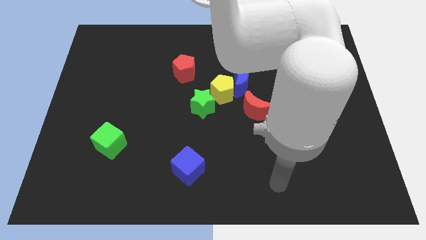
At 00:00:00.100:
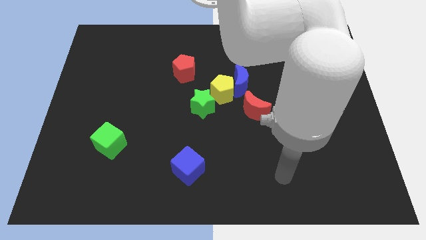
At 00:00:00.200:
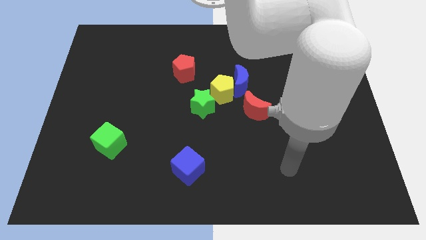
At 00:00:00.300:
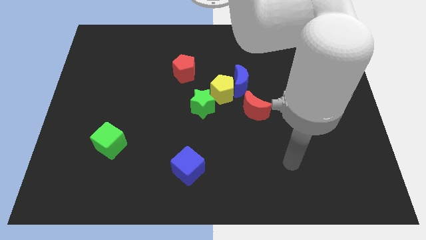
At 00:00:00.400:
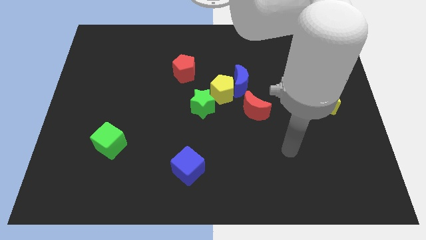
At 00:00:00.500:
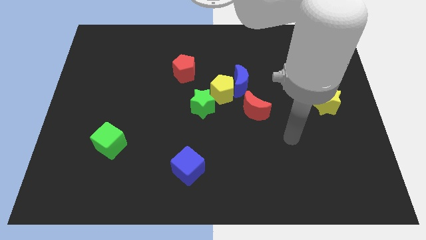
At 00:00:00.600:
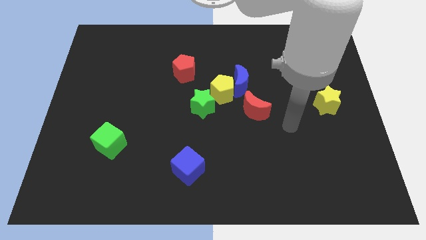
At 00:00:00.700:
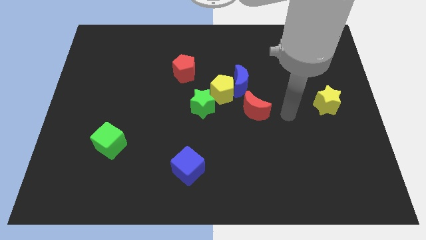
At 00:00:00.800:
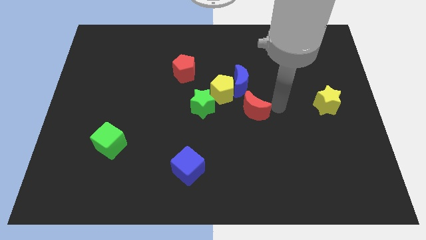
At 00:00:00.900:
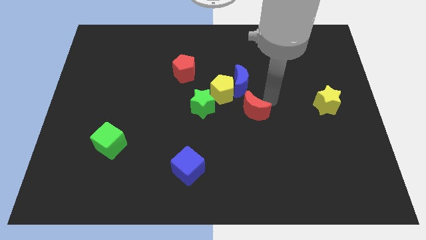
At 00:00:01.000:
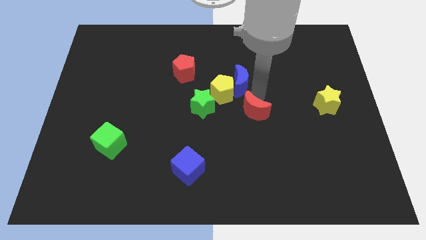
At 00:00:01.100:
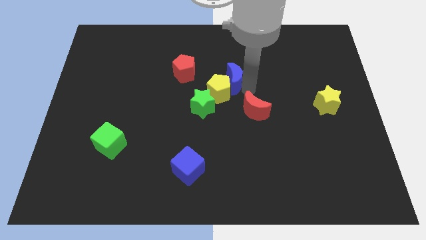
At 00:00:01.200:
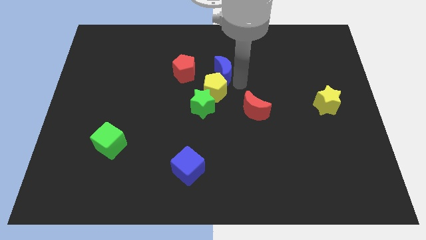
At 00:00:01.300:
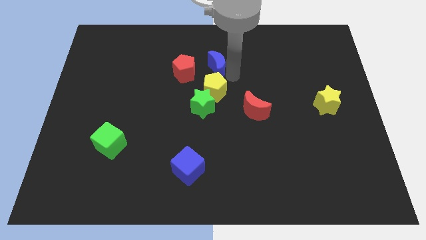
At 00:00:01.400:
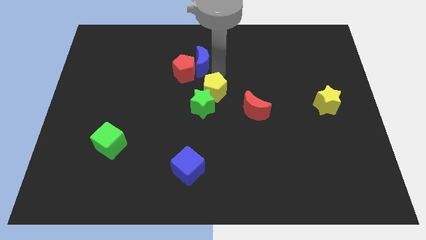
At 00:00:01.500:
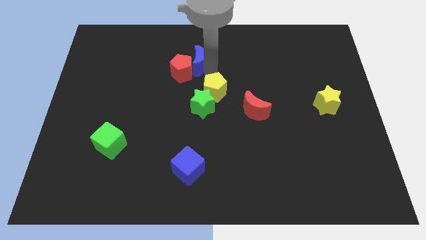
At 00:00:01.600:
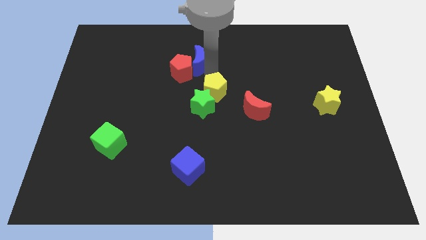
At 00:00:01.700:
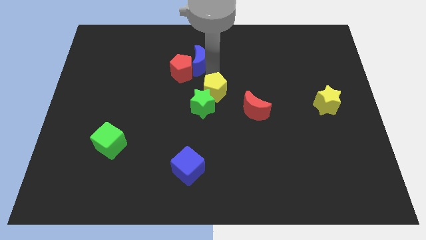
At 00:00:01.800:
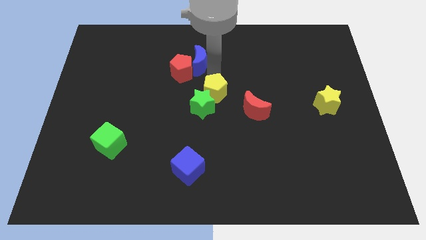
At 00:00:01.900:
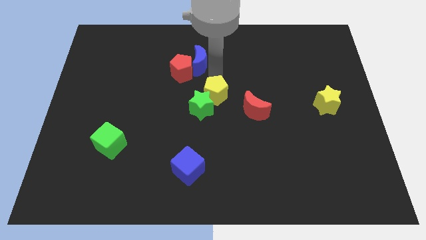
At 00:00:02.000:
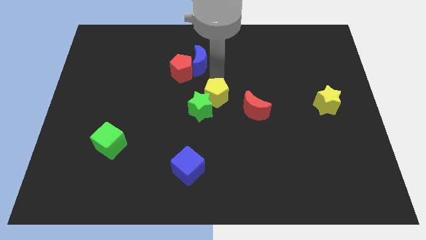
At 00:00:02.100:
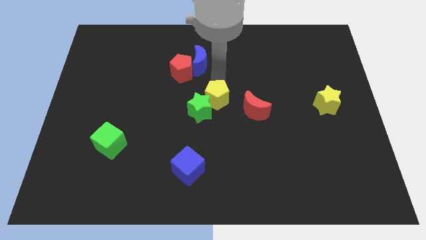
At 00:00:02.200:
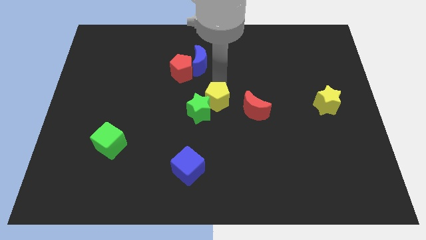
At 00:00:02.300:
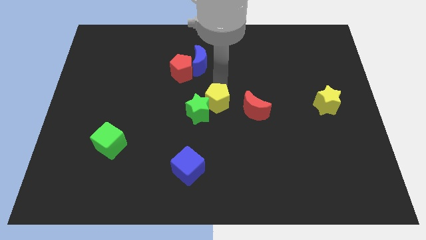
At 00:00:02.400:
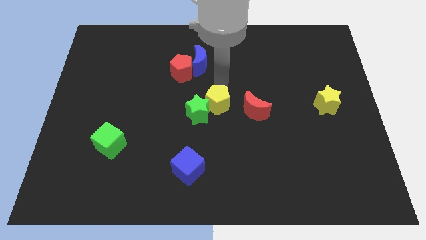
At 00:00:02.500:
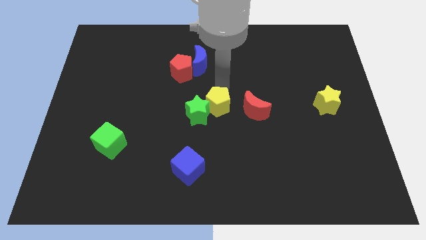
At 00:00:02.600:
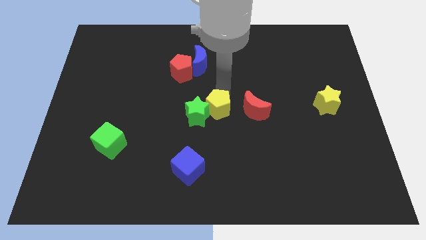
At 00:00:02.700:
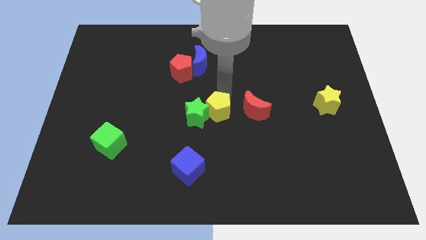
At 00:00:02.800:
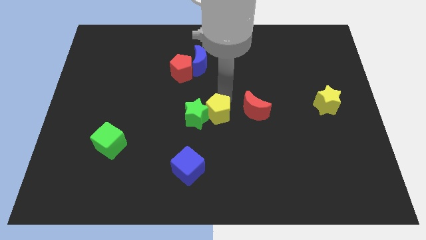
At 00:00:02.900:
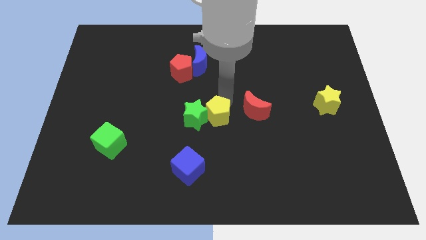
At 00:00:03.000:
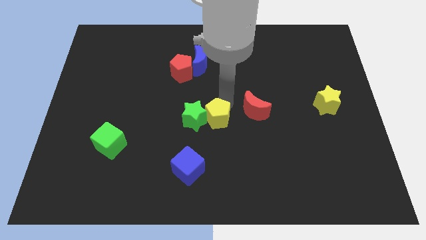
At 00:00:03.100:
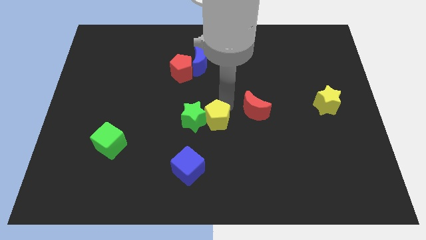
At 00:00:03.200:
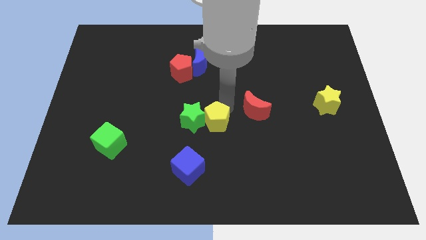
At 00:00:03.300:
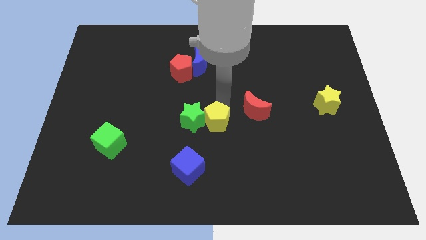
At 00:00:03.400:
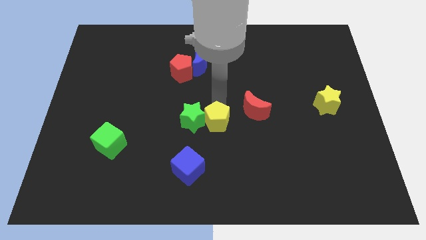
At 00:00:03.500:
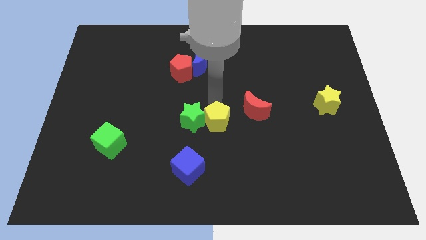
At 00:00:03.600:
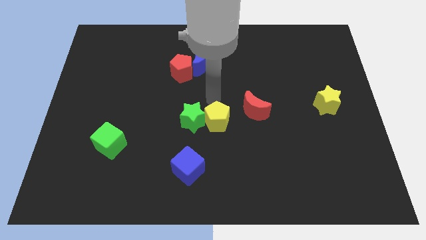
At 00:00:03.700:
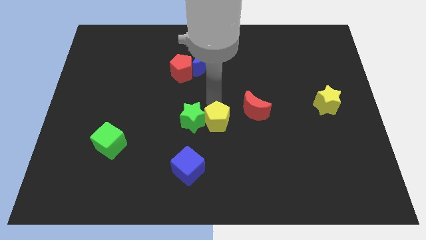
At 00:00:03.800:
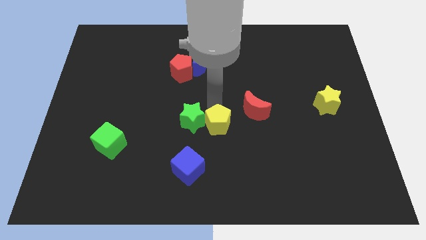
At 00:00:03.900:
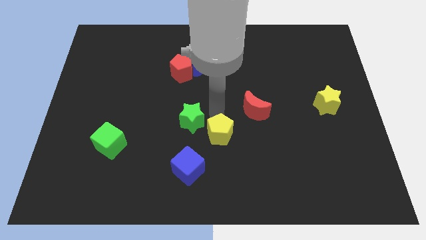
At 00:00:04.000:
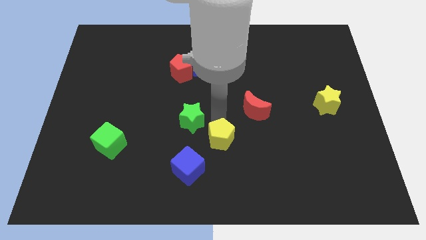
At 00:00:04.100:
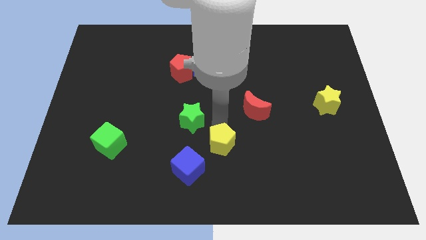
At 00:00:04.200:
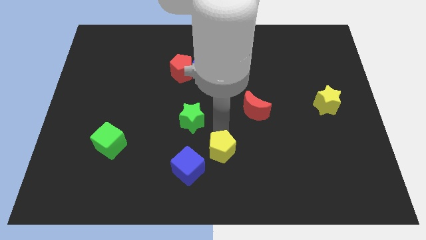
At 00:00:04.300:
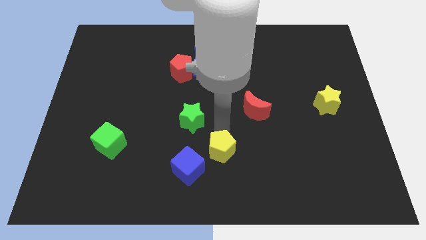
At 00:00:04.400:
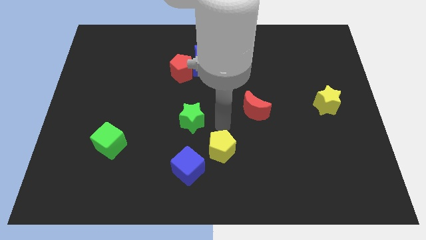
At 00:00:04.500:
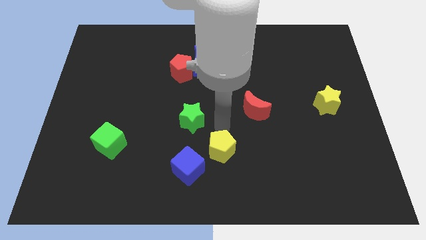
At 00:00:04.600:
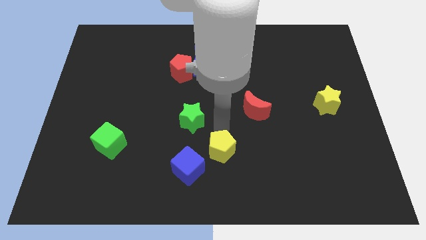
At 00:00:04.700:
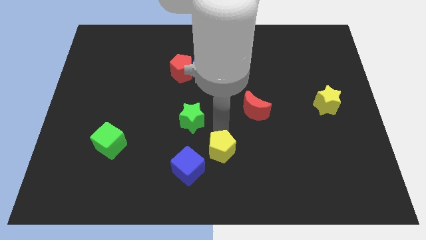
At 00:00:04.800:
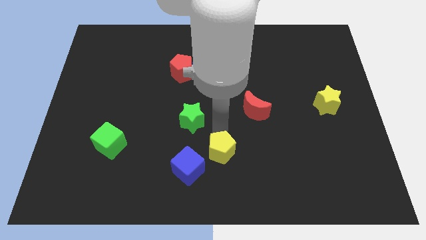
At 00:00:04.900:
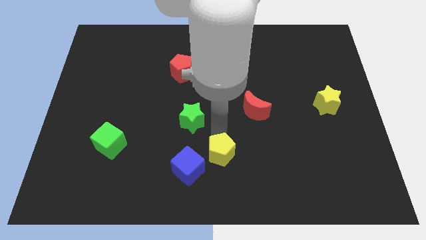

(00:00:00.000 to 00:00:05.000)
move the yellow pentagon to the bottom
